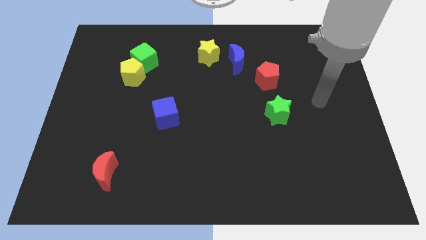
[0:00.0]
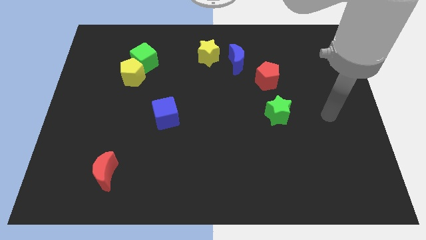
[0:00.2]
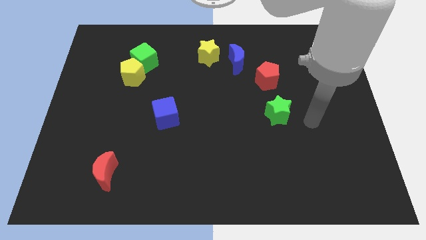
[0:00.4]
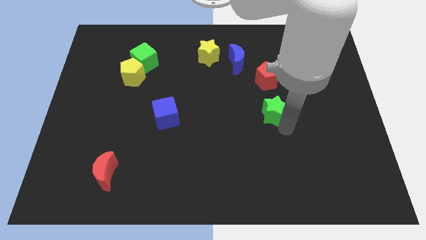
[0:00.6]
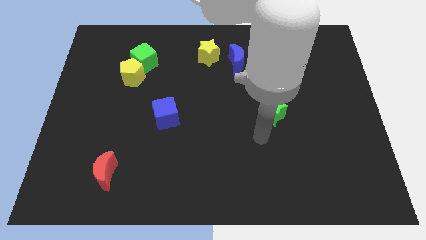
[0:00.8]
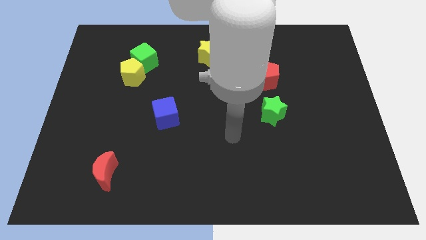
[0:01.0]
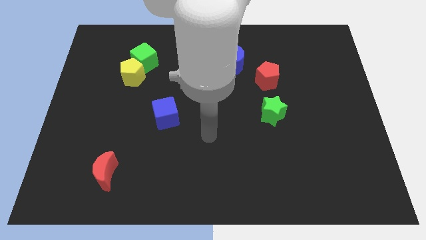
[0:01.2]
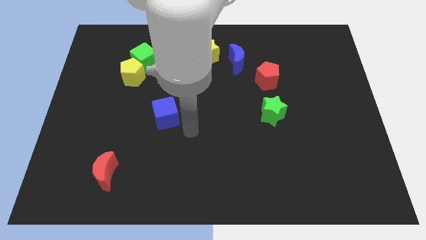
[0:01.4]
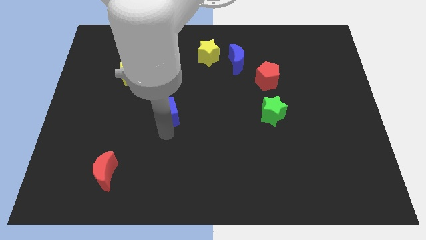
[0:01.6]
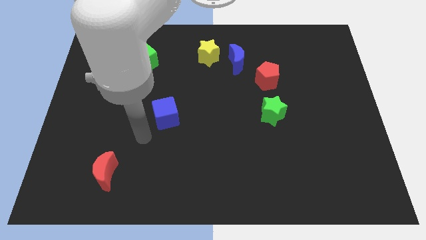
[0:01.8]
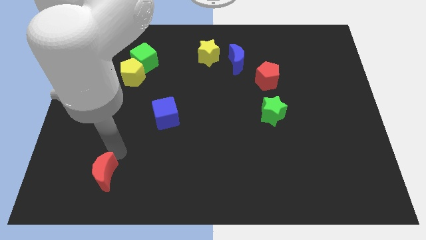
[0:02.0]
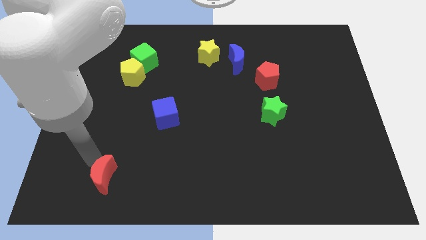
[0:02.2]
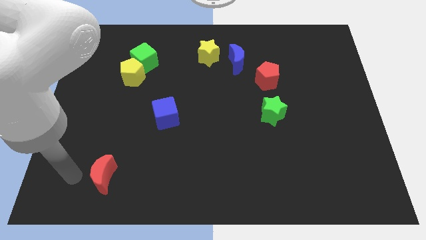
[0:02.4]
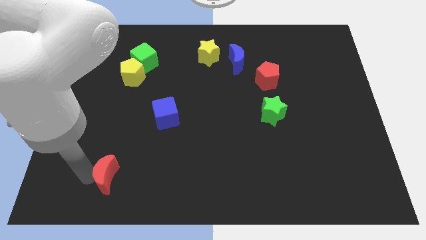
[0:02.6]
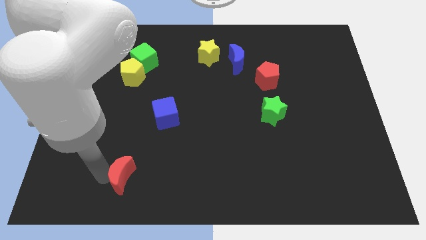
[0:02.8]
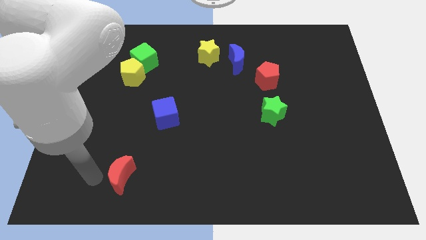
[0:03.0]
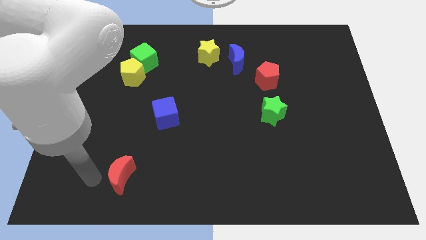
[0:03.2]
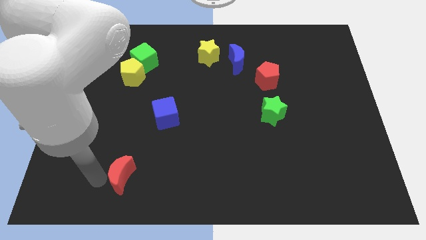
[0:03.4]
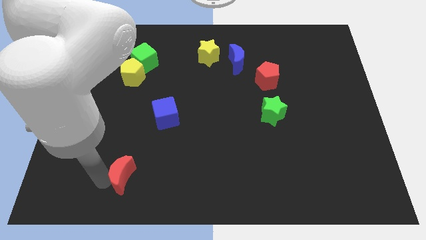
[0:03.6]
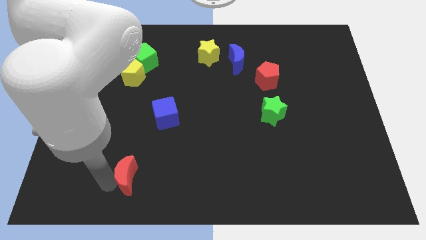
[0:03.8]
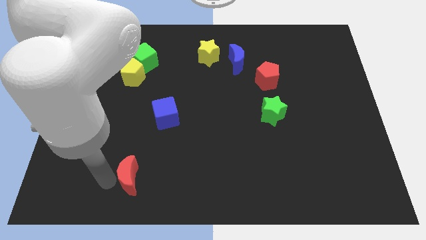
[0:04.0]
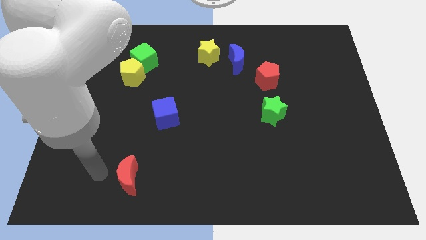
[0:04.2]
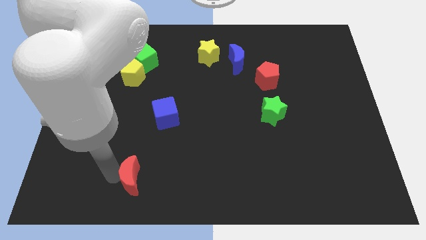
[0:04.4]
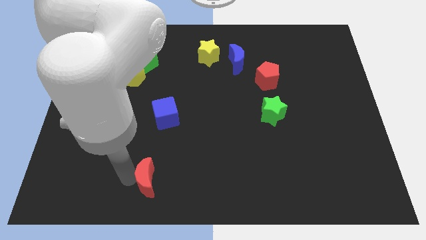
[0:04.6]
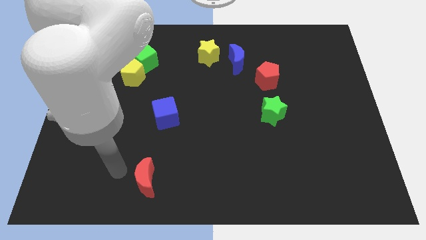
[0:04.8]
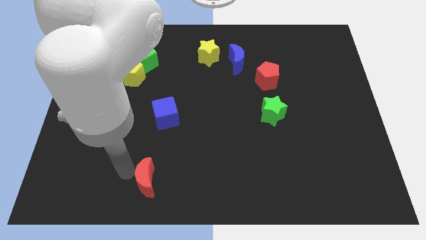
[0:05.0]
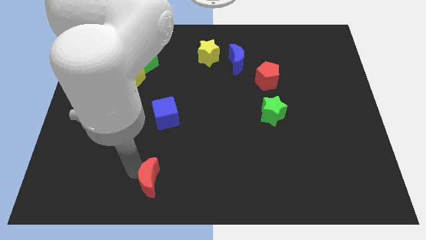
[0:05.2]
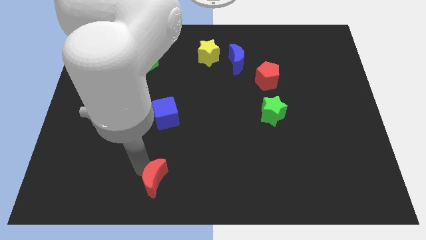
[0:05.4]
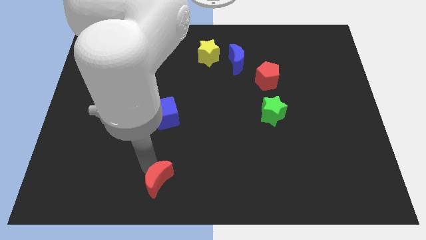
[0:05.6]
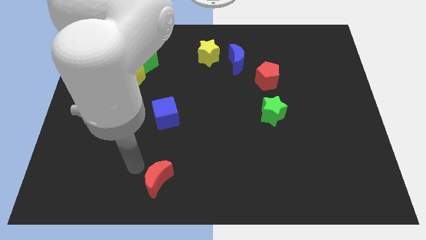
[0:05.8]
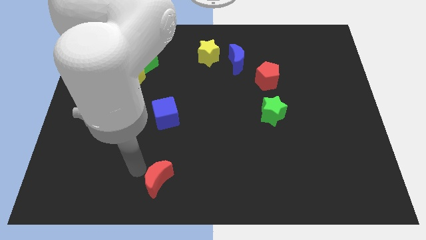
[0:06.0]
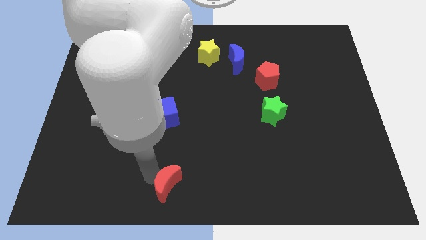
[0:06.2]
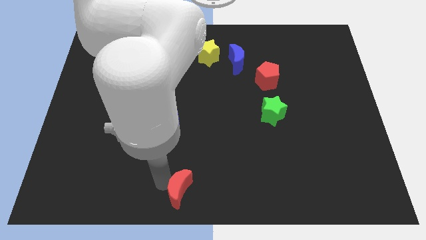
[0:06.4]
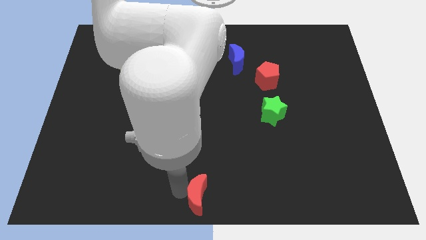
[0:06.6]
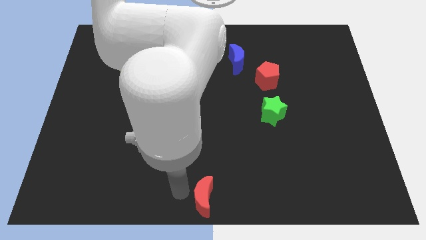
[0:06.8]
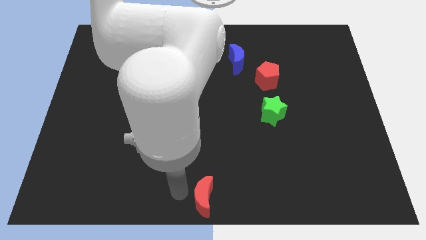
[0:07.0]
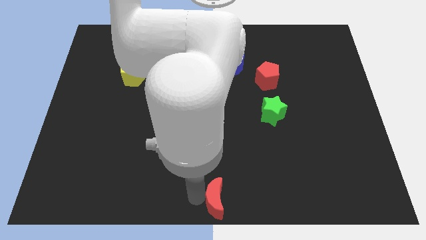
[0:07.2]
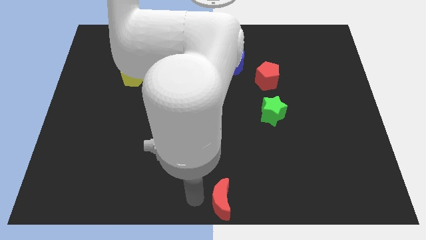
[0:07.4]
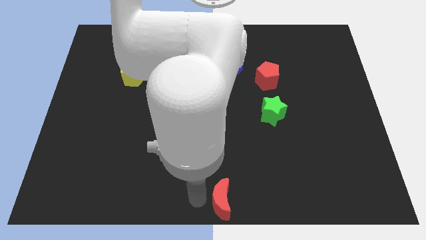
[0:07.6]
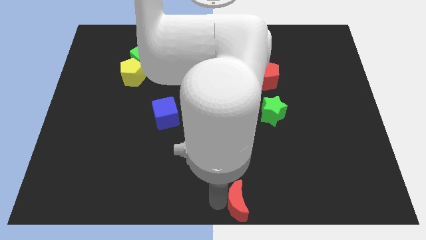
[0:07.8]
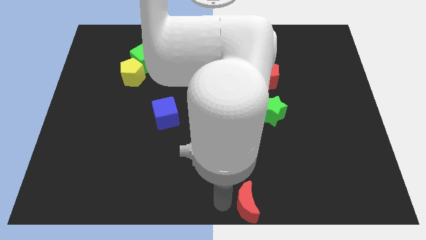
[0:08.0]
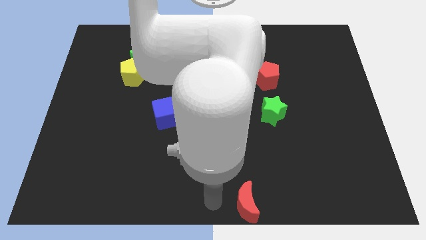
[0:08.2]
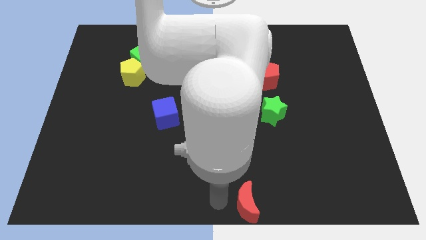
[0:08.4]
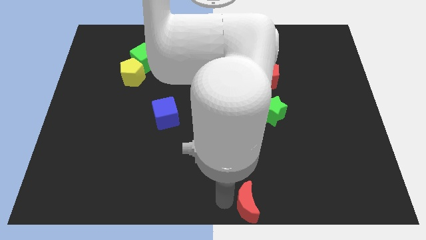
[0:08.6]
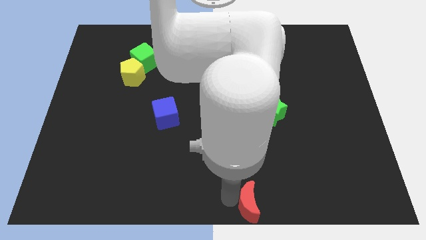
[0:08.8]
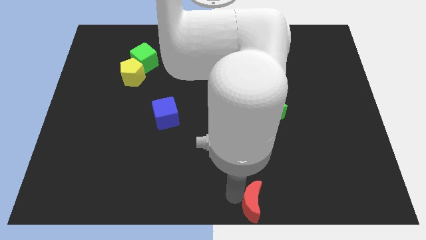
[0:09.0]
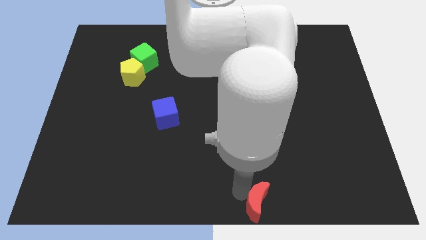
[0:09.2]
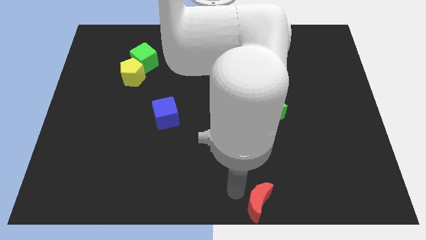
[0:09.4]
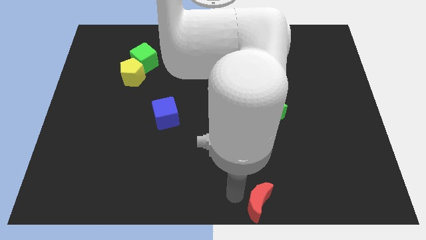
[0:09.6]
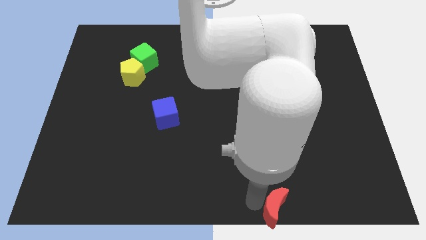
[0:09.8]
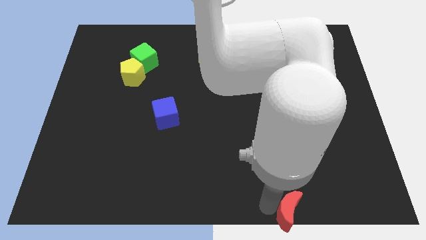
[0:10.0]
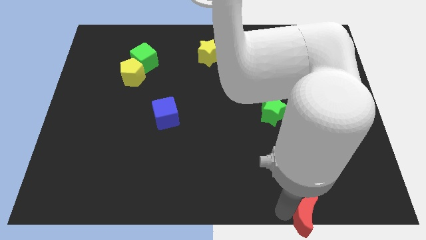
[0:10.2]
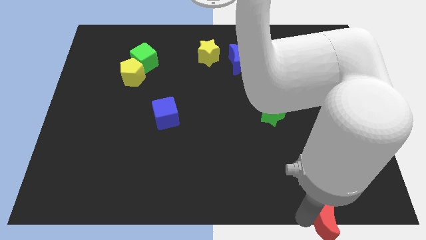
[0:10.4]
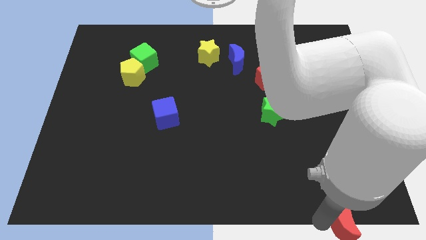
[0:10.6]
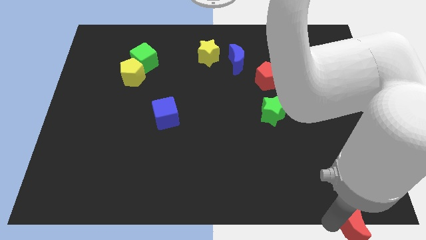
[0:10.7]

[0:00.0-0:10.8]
push the red moon to the bottom right
